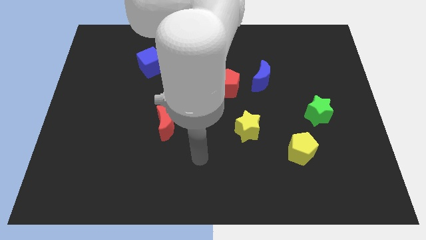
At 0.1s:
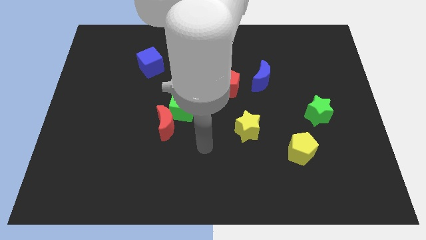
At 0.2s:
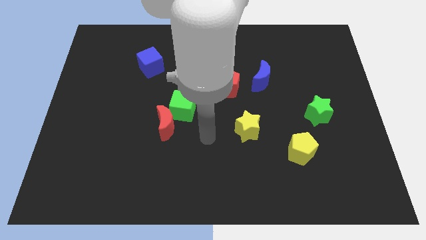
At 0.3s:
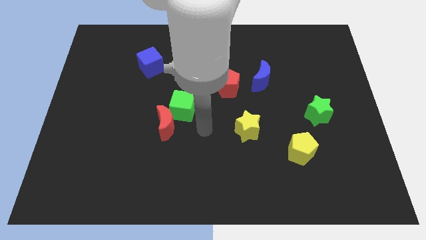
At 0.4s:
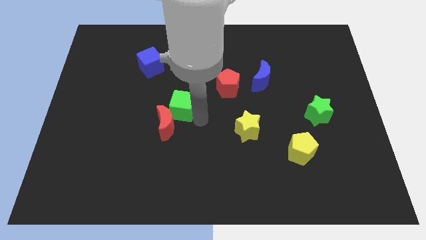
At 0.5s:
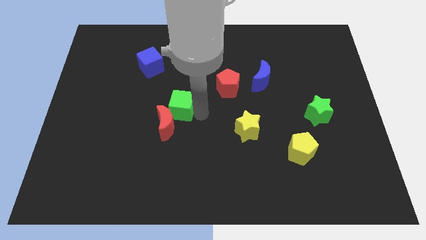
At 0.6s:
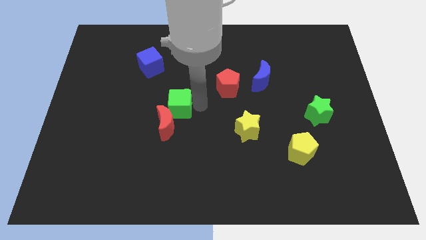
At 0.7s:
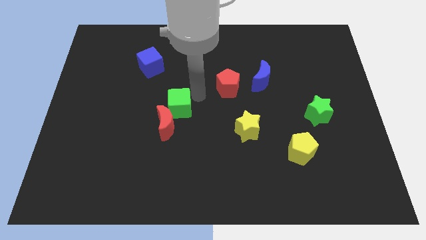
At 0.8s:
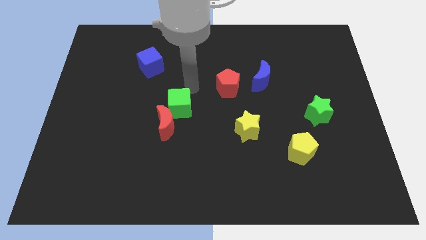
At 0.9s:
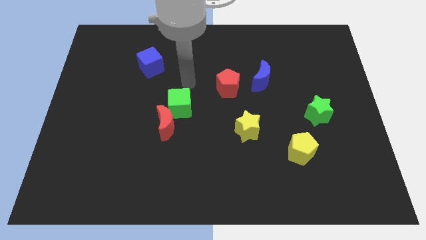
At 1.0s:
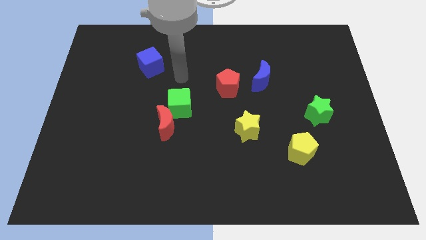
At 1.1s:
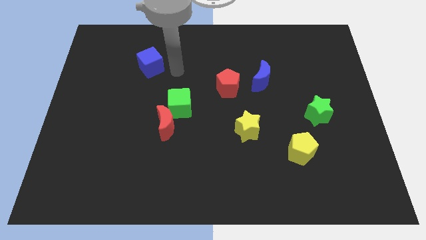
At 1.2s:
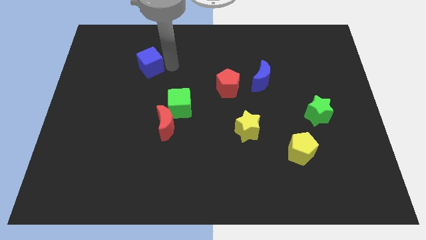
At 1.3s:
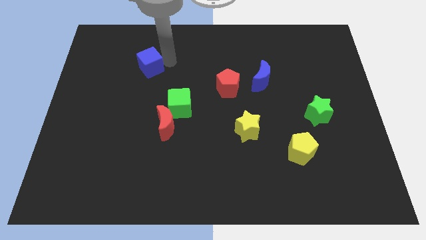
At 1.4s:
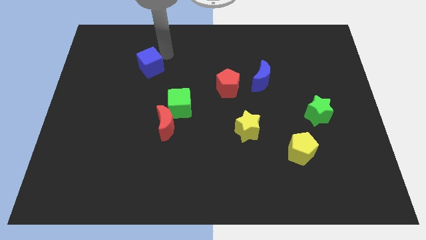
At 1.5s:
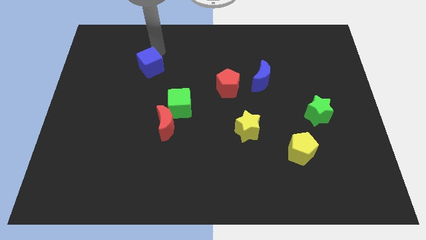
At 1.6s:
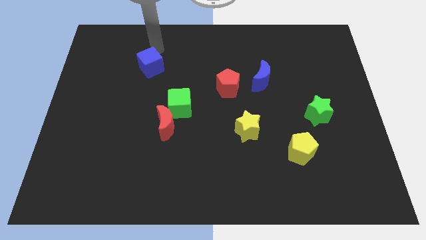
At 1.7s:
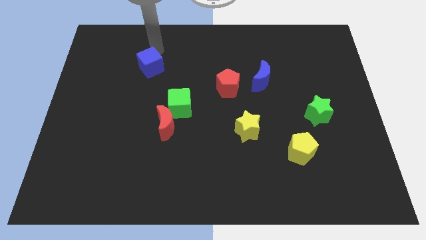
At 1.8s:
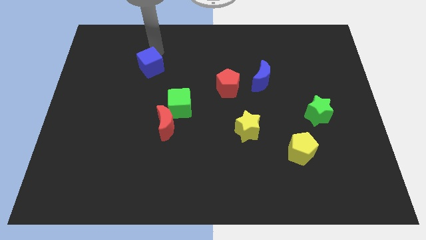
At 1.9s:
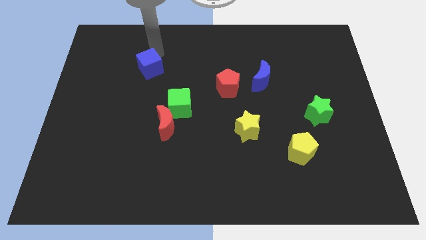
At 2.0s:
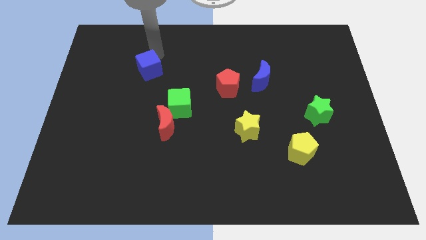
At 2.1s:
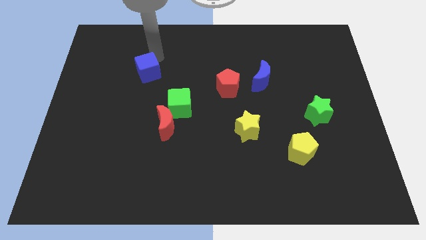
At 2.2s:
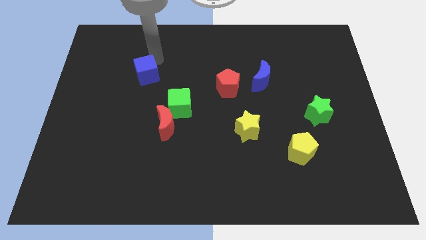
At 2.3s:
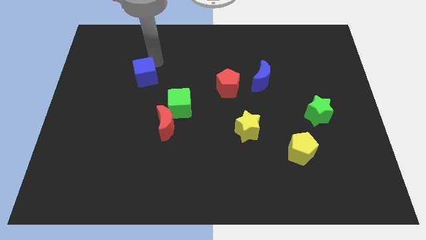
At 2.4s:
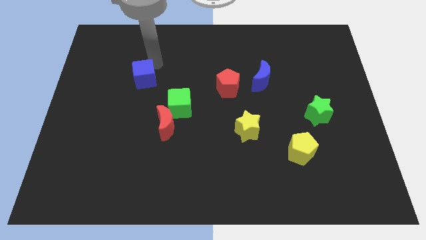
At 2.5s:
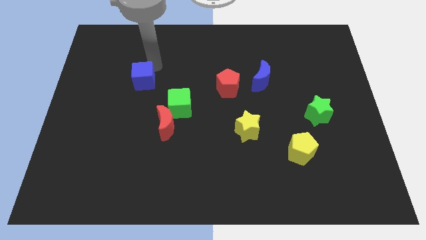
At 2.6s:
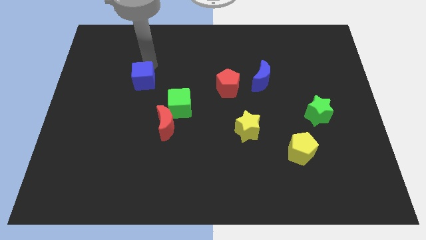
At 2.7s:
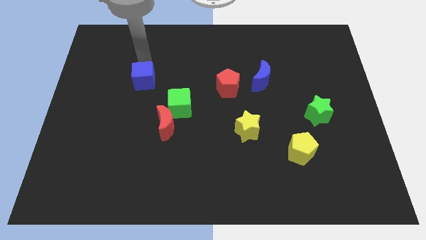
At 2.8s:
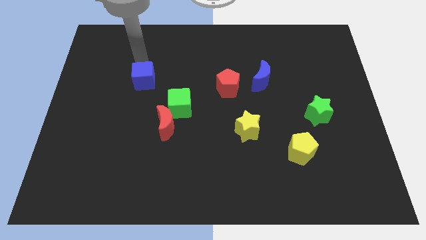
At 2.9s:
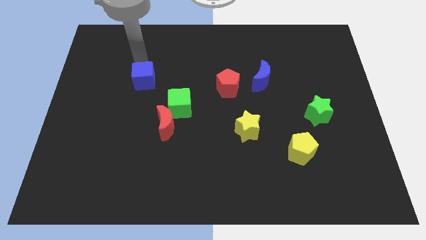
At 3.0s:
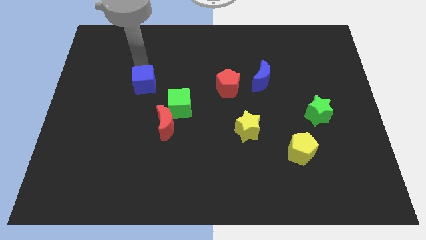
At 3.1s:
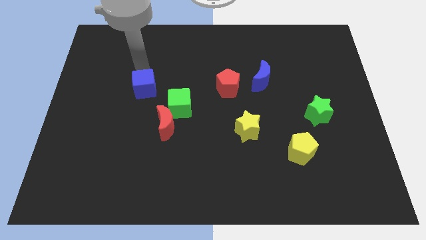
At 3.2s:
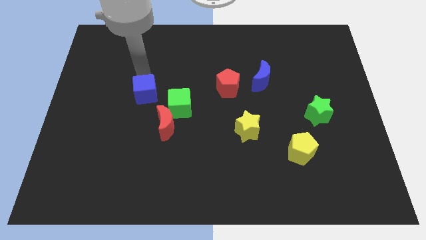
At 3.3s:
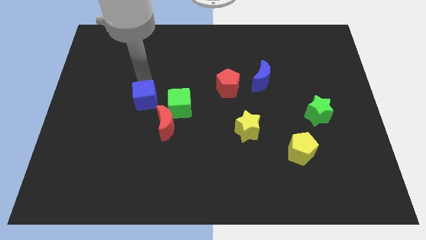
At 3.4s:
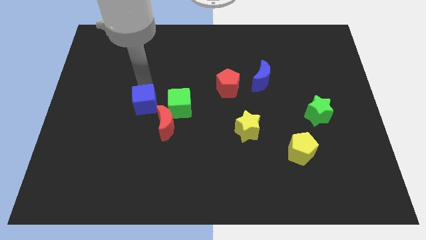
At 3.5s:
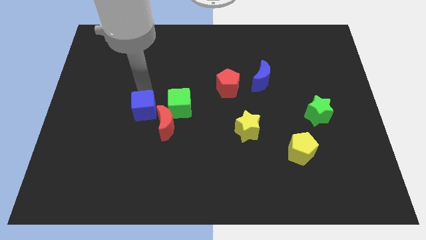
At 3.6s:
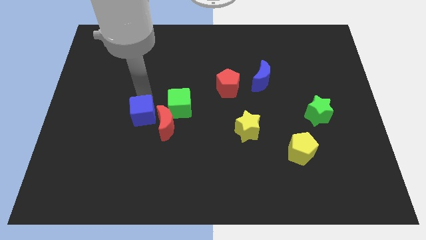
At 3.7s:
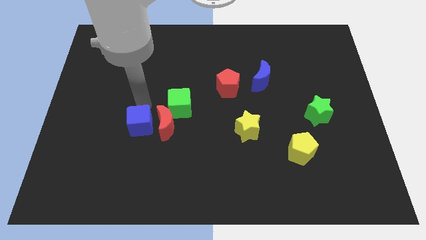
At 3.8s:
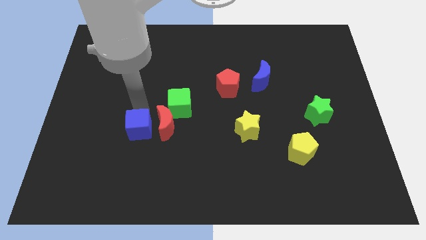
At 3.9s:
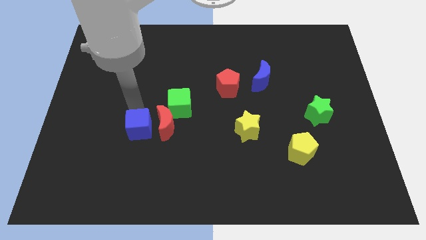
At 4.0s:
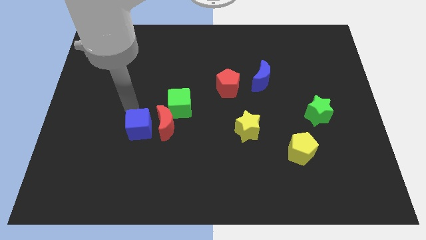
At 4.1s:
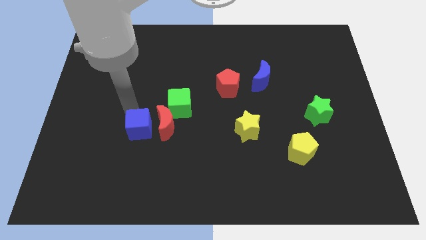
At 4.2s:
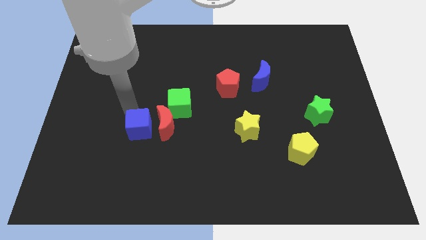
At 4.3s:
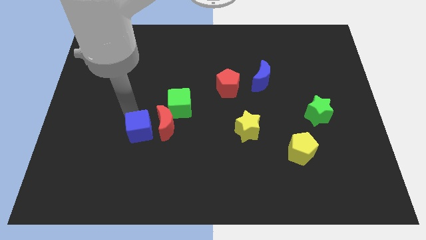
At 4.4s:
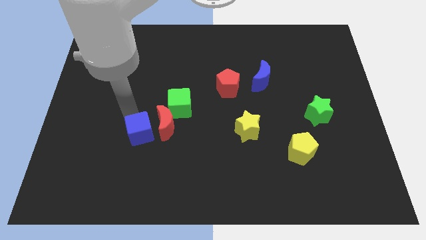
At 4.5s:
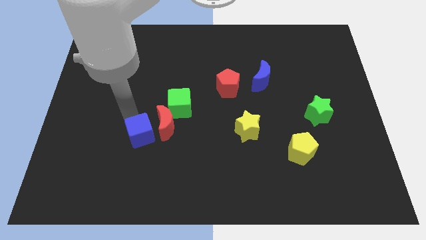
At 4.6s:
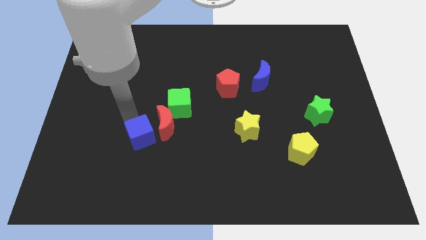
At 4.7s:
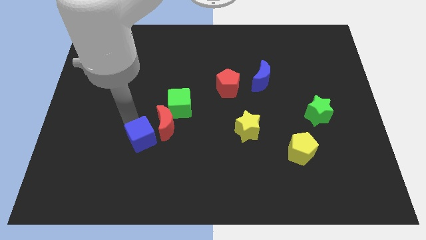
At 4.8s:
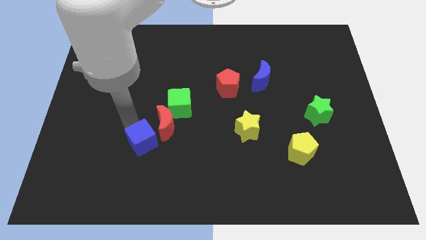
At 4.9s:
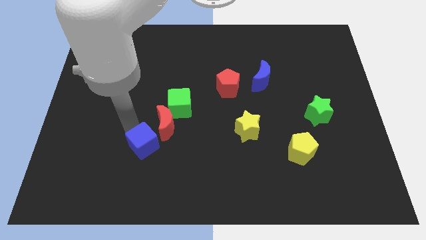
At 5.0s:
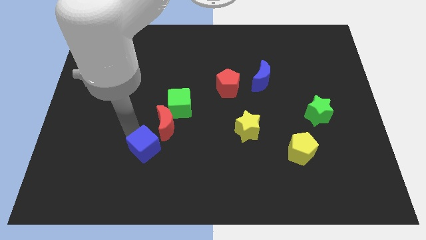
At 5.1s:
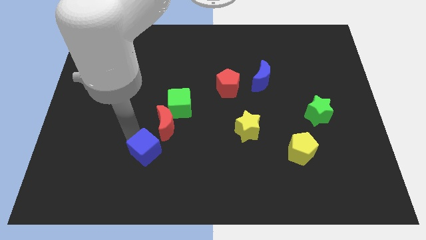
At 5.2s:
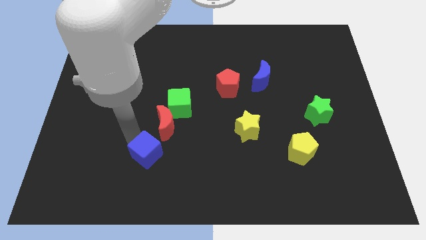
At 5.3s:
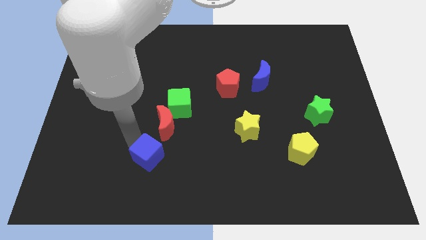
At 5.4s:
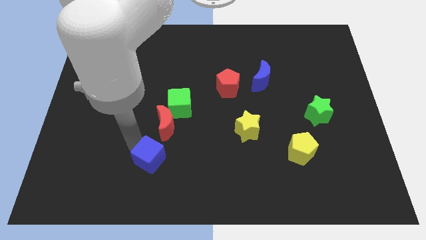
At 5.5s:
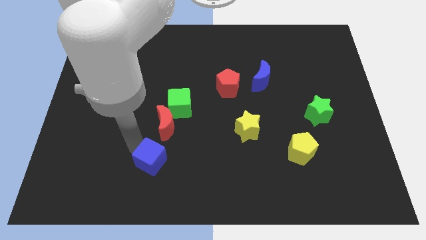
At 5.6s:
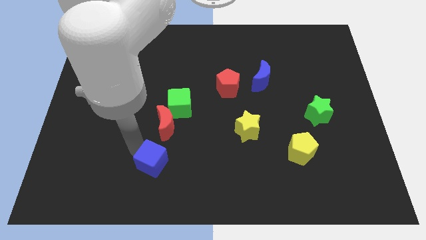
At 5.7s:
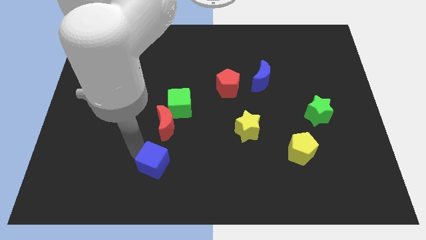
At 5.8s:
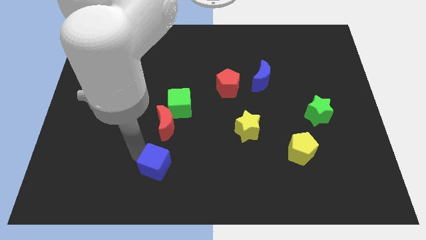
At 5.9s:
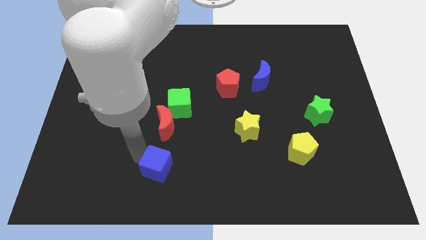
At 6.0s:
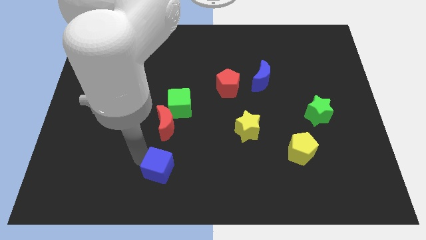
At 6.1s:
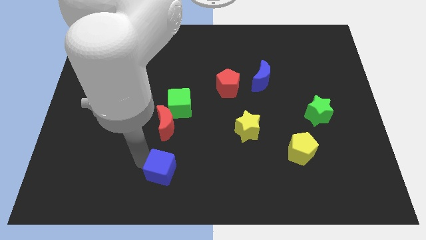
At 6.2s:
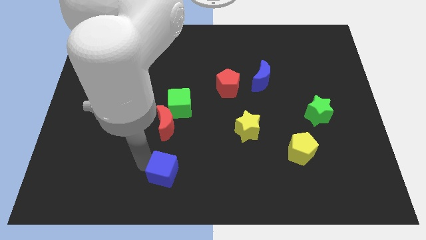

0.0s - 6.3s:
slide the blue cube to the bottom

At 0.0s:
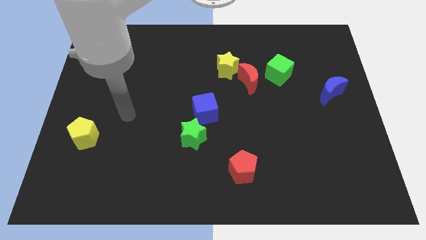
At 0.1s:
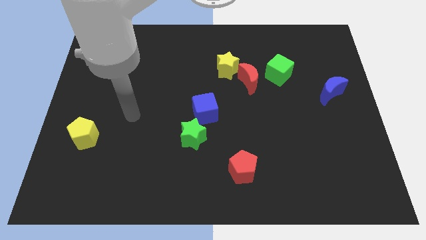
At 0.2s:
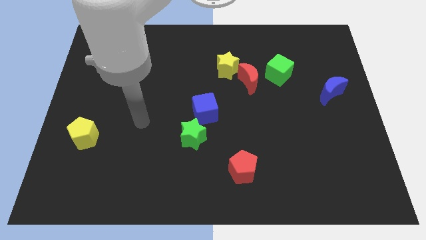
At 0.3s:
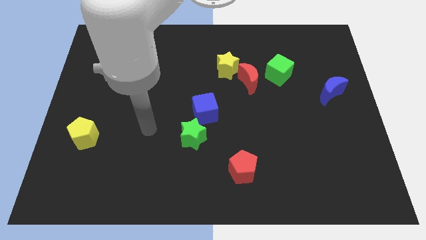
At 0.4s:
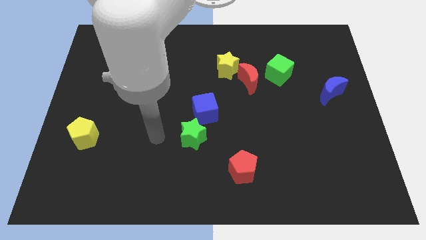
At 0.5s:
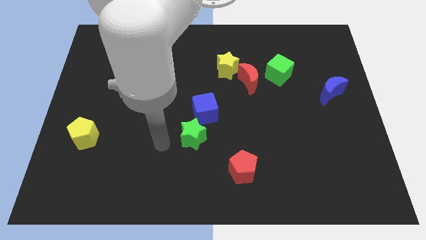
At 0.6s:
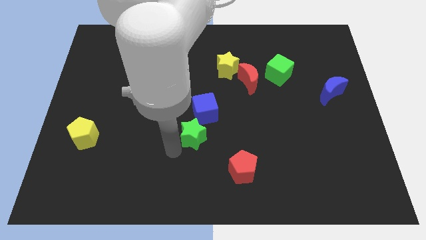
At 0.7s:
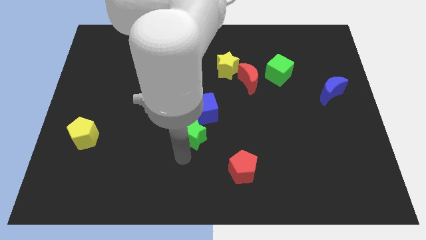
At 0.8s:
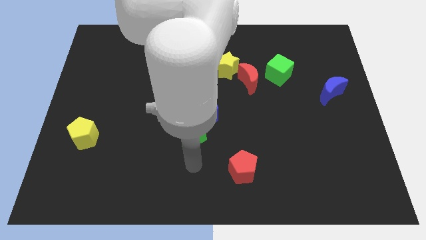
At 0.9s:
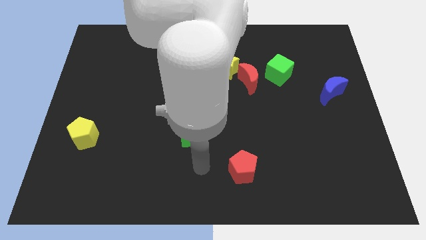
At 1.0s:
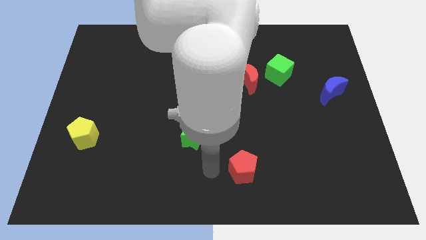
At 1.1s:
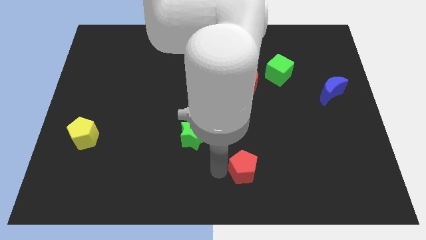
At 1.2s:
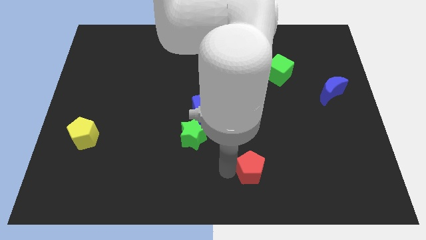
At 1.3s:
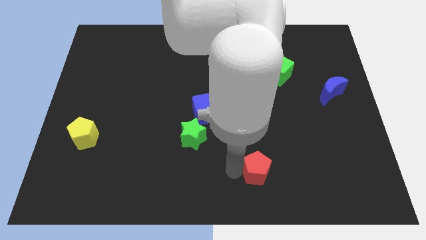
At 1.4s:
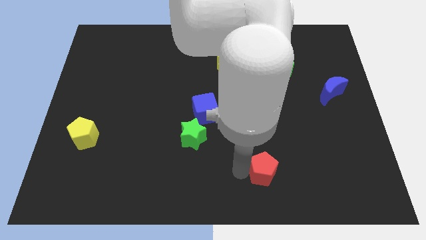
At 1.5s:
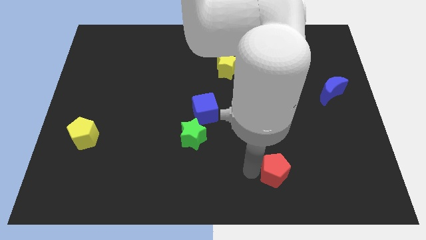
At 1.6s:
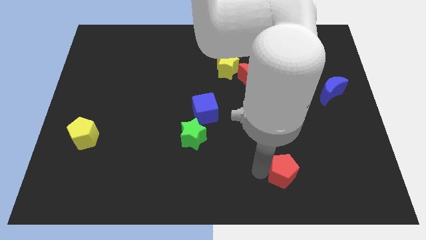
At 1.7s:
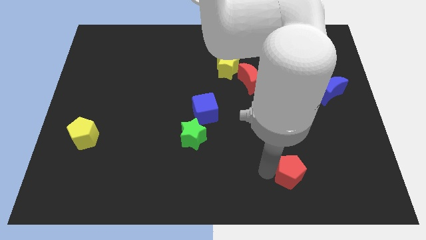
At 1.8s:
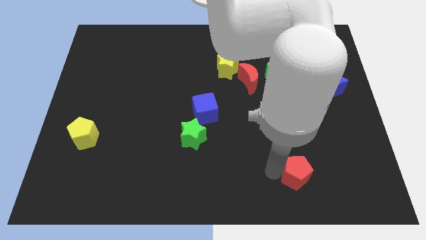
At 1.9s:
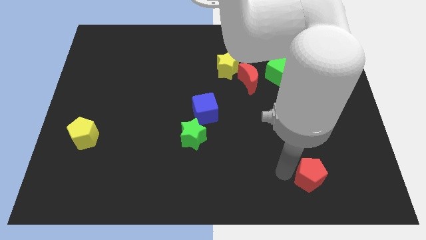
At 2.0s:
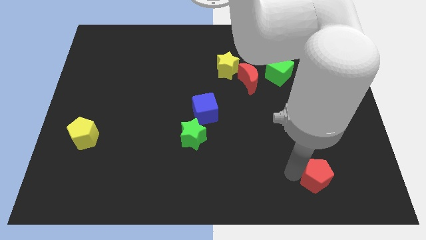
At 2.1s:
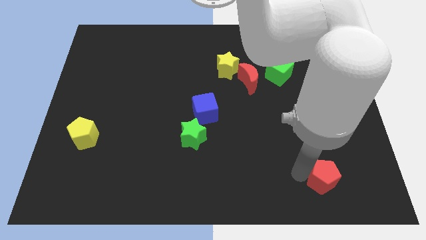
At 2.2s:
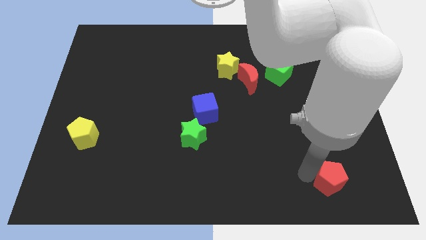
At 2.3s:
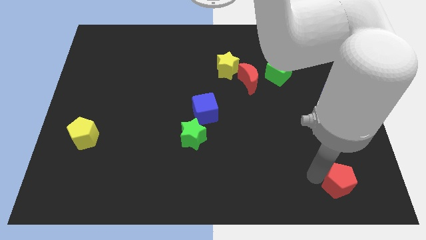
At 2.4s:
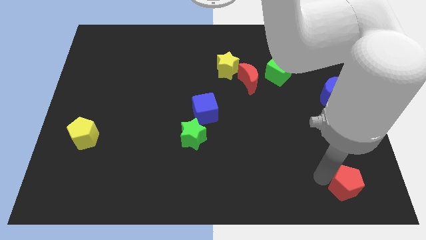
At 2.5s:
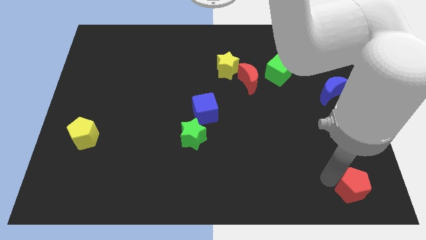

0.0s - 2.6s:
move the red pentagon to the bottom right corner
